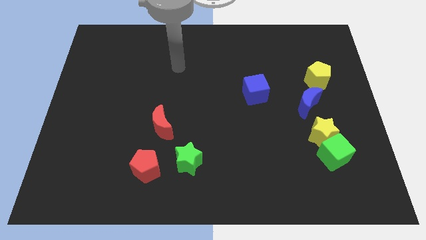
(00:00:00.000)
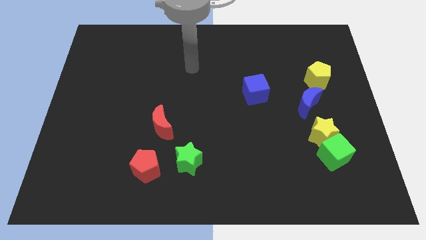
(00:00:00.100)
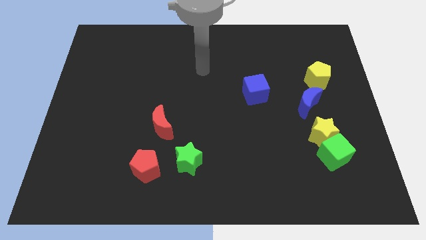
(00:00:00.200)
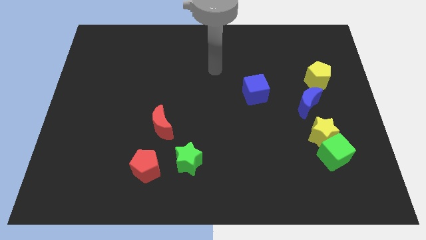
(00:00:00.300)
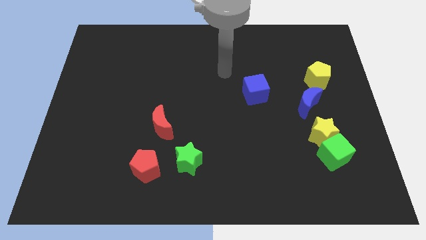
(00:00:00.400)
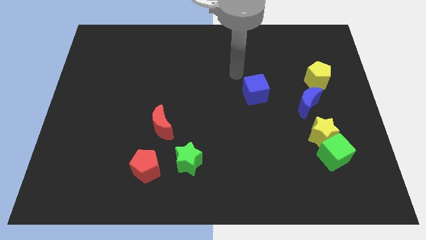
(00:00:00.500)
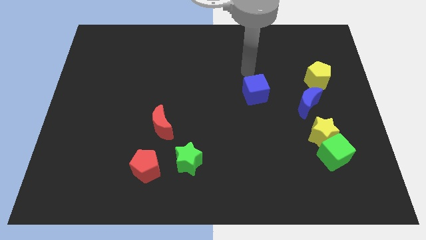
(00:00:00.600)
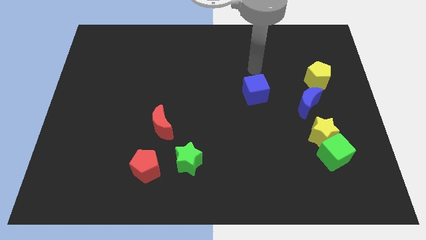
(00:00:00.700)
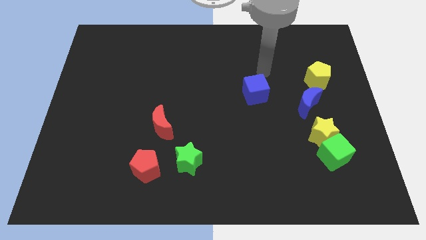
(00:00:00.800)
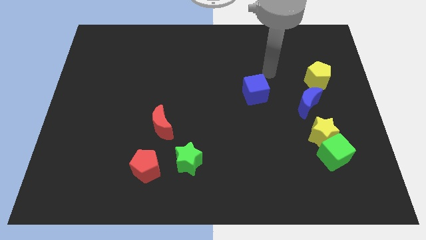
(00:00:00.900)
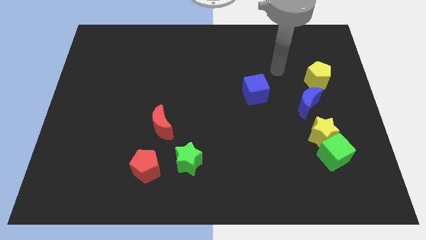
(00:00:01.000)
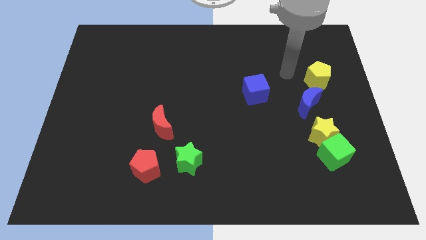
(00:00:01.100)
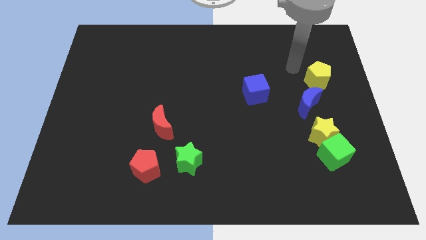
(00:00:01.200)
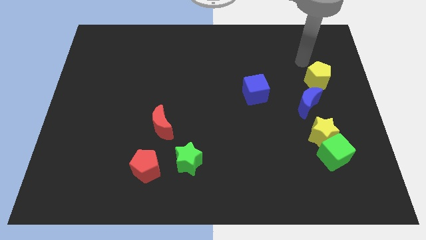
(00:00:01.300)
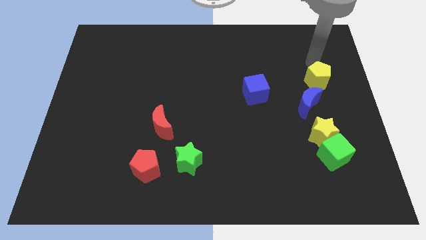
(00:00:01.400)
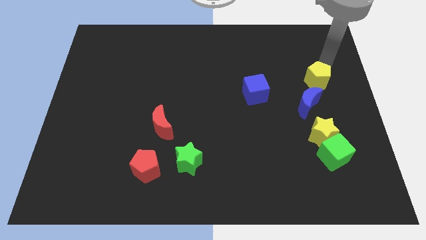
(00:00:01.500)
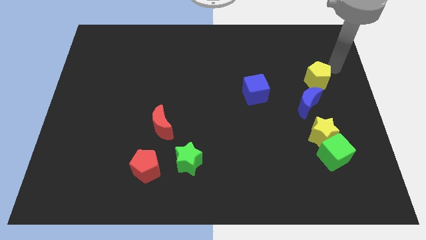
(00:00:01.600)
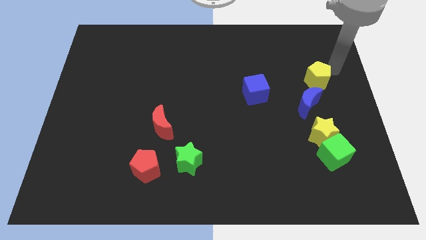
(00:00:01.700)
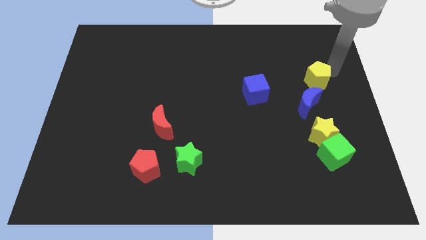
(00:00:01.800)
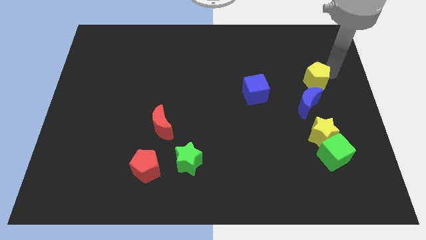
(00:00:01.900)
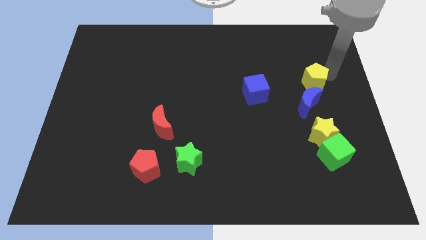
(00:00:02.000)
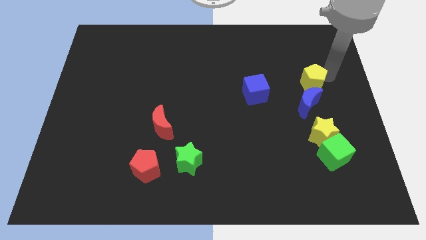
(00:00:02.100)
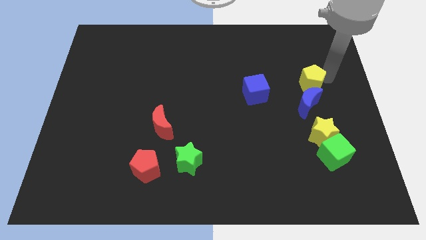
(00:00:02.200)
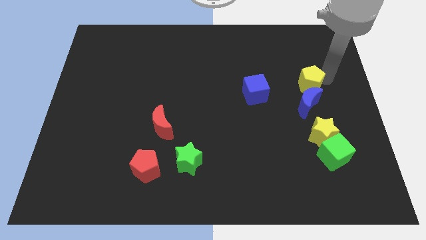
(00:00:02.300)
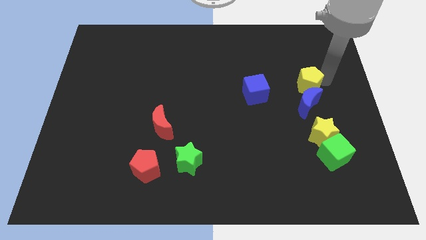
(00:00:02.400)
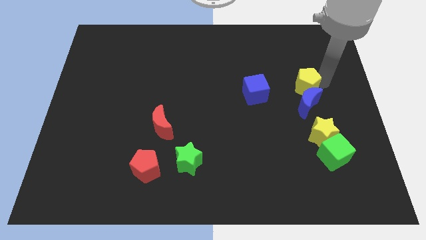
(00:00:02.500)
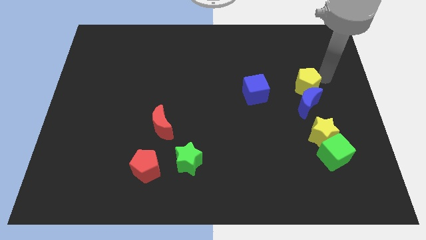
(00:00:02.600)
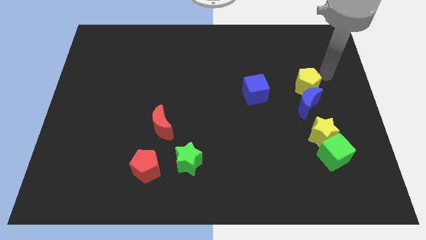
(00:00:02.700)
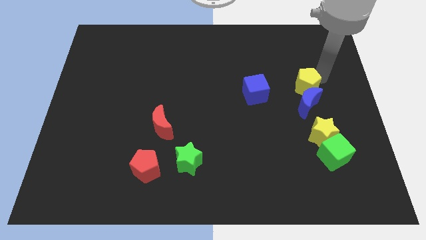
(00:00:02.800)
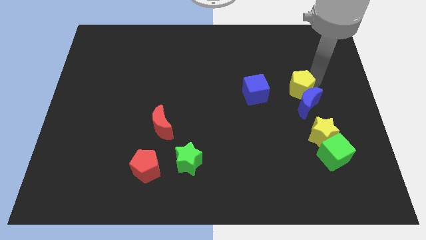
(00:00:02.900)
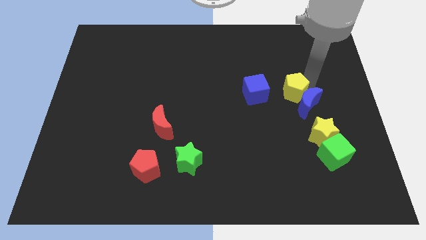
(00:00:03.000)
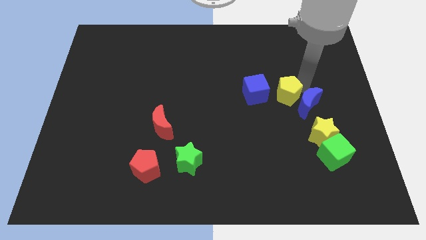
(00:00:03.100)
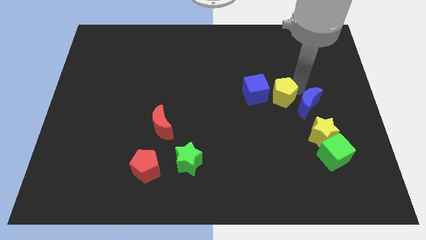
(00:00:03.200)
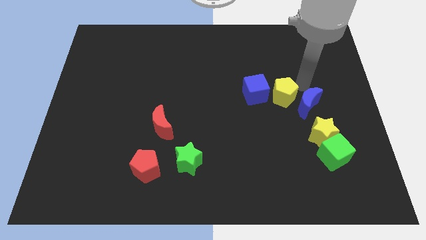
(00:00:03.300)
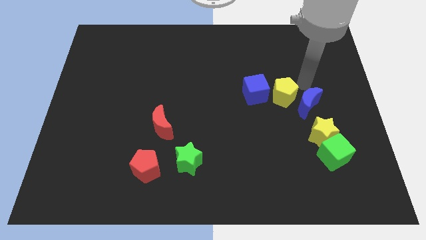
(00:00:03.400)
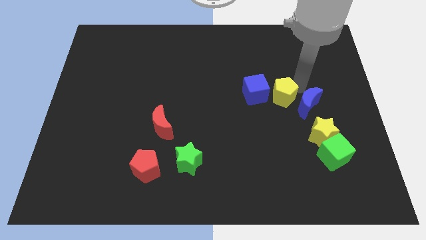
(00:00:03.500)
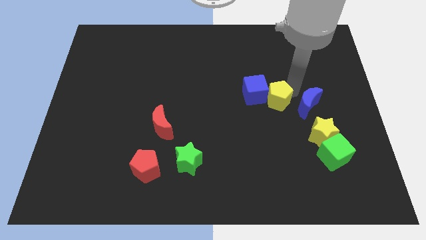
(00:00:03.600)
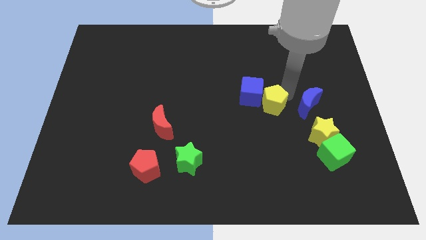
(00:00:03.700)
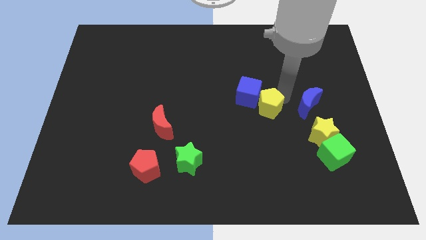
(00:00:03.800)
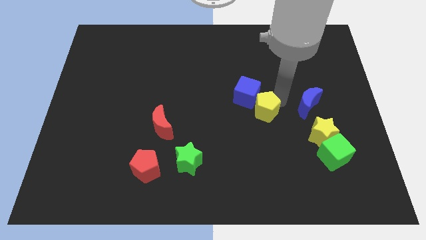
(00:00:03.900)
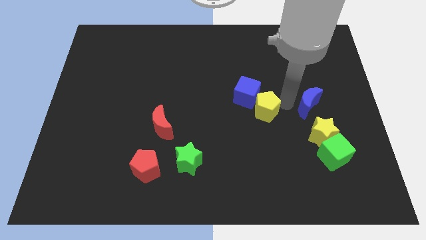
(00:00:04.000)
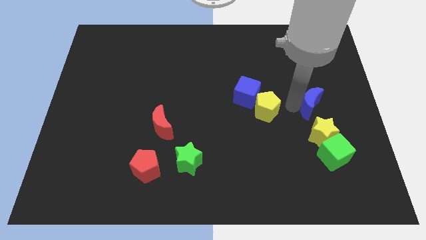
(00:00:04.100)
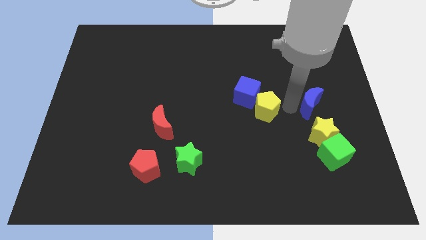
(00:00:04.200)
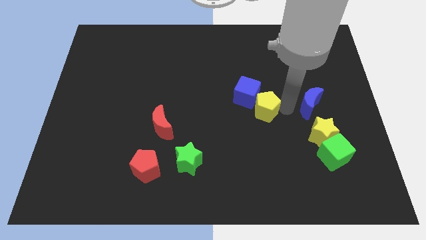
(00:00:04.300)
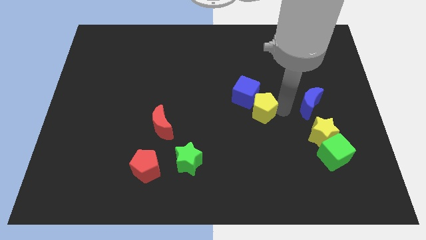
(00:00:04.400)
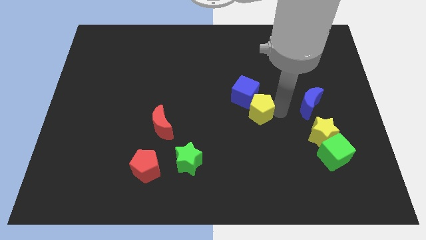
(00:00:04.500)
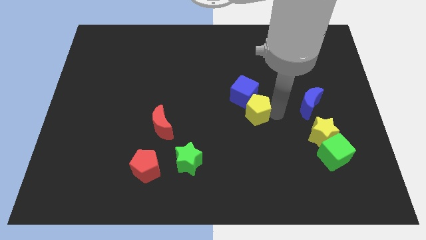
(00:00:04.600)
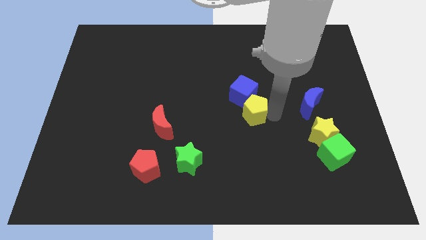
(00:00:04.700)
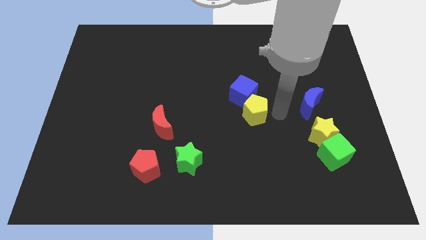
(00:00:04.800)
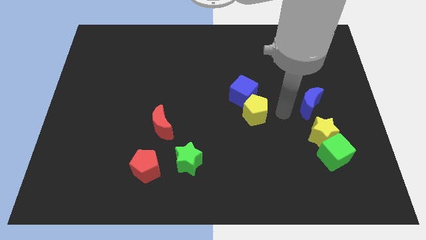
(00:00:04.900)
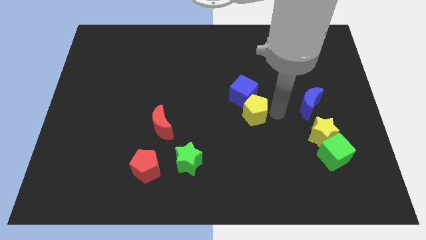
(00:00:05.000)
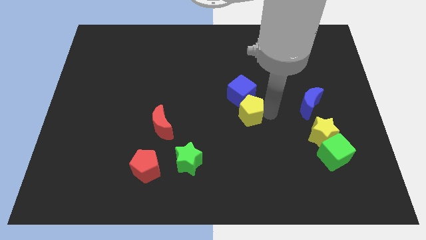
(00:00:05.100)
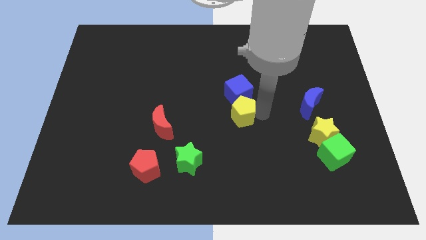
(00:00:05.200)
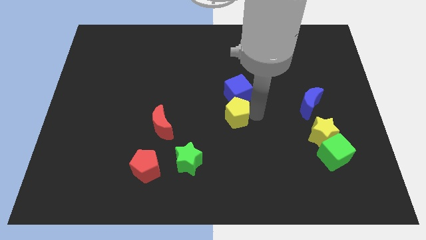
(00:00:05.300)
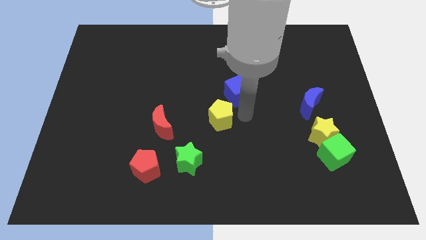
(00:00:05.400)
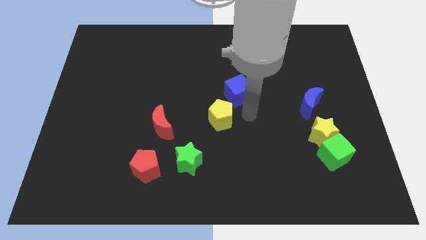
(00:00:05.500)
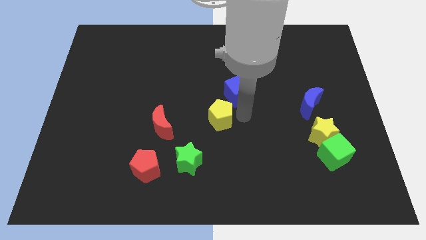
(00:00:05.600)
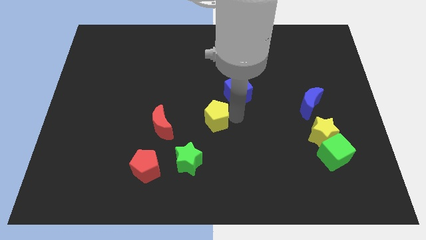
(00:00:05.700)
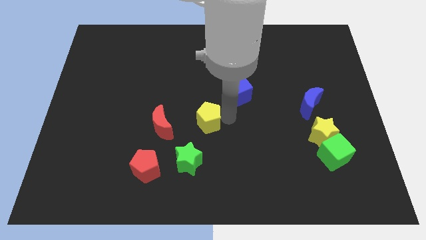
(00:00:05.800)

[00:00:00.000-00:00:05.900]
put the yellow pentagon above the green star

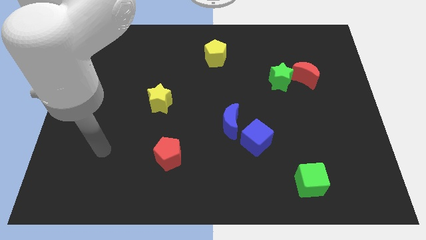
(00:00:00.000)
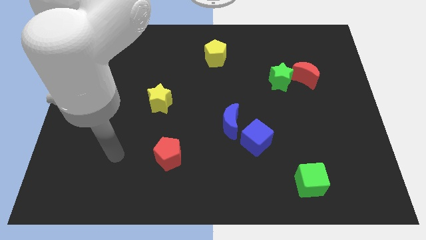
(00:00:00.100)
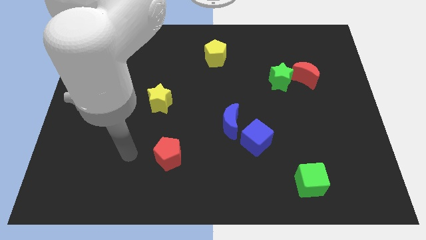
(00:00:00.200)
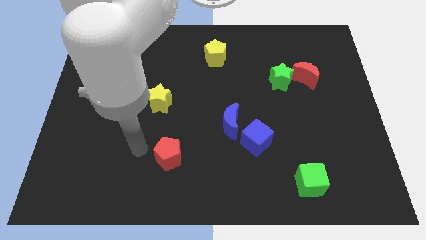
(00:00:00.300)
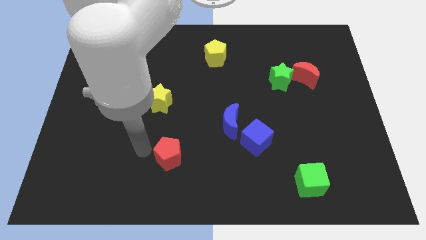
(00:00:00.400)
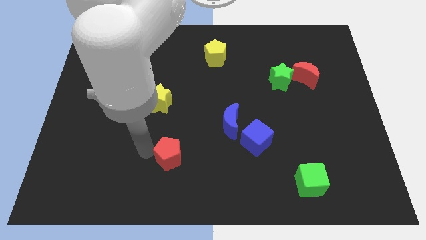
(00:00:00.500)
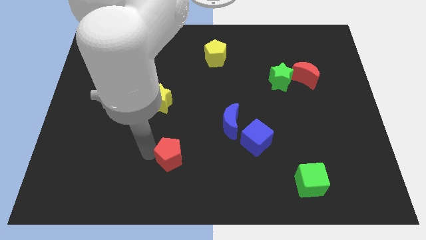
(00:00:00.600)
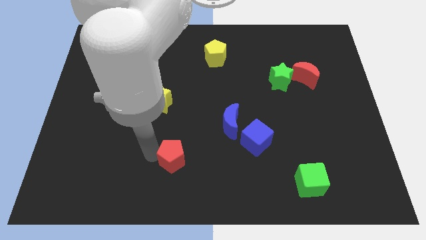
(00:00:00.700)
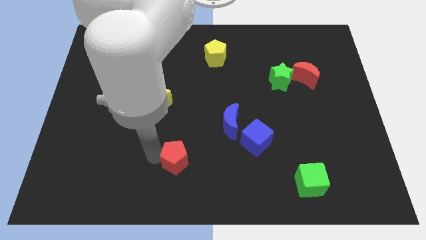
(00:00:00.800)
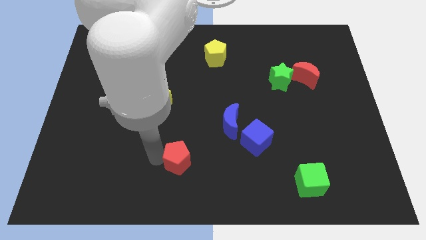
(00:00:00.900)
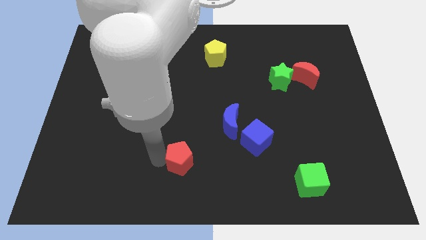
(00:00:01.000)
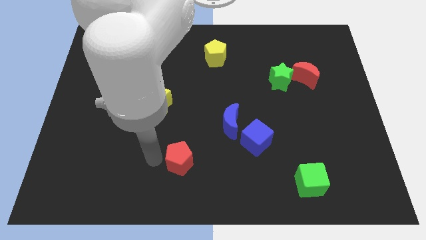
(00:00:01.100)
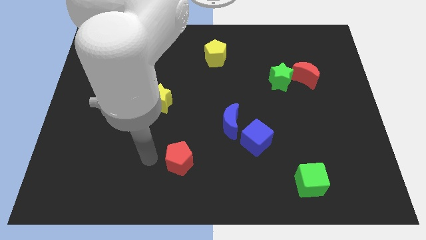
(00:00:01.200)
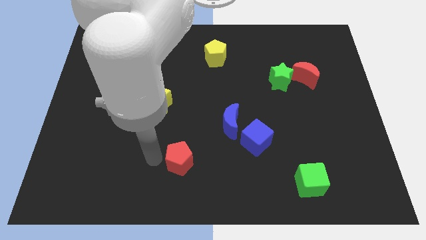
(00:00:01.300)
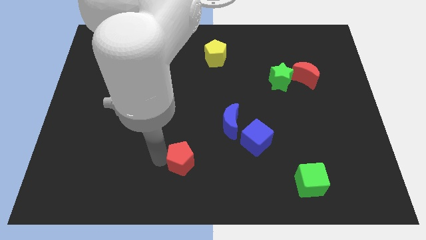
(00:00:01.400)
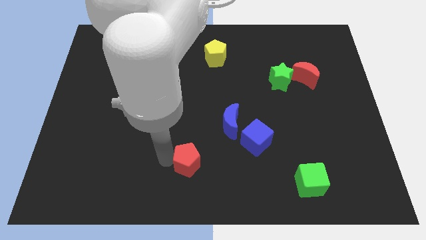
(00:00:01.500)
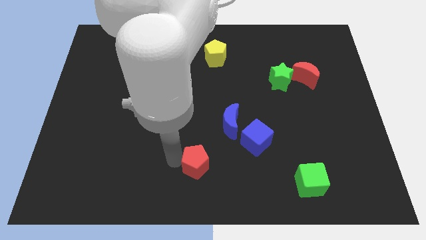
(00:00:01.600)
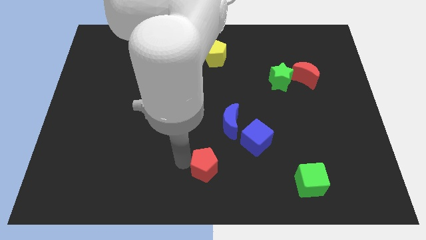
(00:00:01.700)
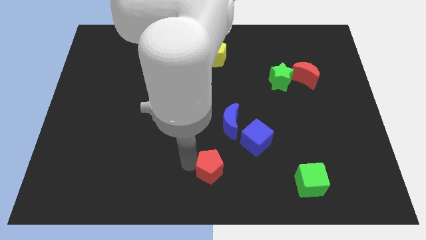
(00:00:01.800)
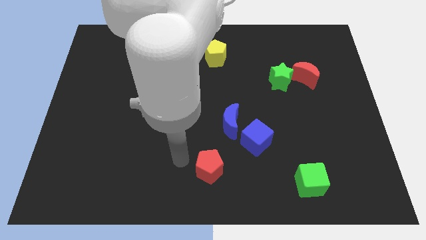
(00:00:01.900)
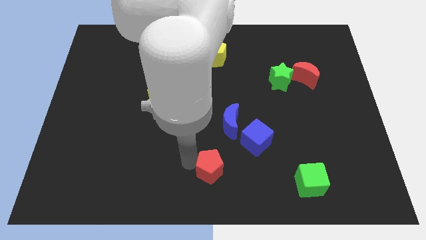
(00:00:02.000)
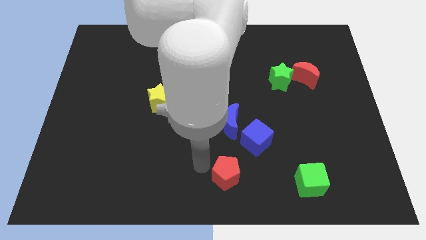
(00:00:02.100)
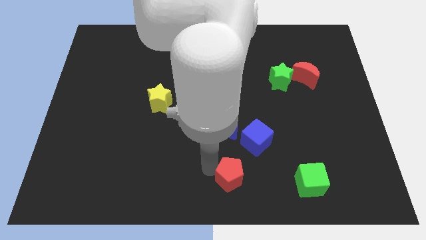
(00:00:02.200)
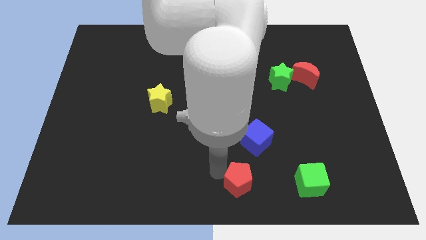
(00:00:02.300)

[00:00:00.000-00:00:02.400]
slide the red pentagon to the left side of the green cube

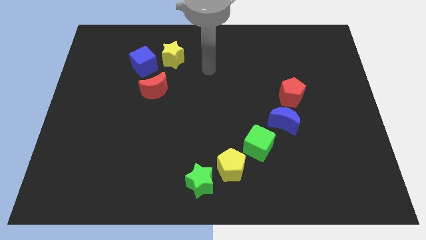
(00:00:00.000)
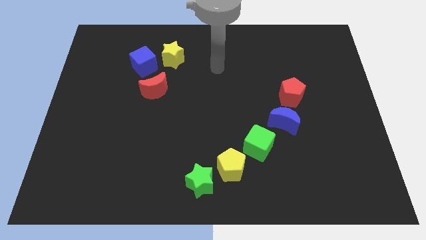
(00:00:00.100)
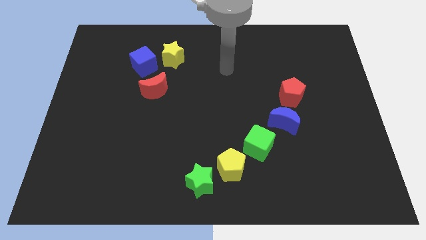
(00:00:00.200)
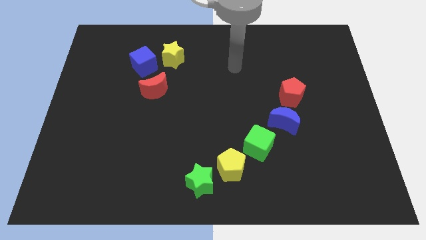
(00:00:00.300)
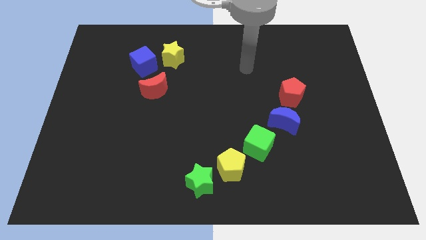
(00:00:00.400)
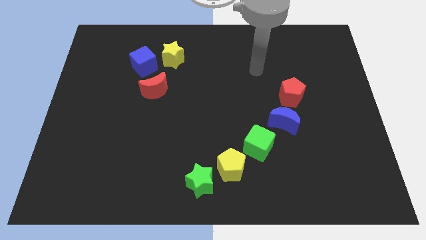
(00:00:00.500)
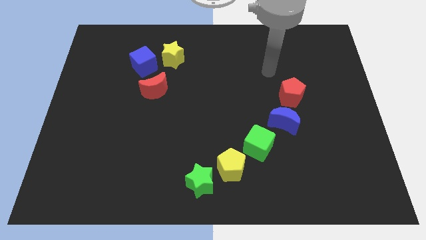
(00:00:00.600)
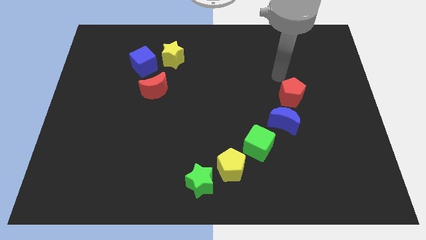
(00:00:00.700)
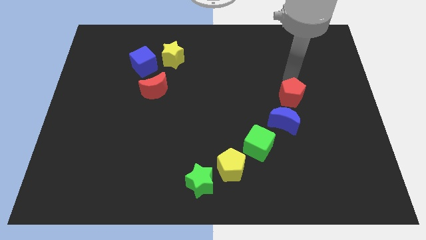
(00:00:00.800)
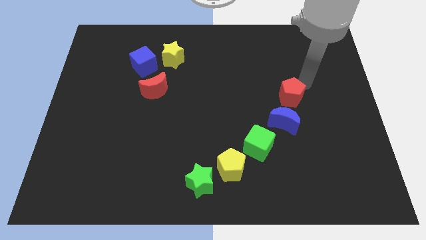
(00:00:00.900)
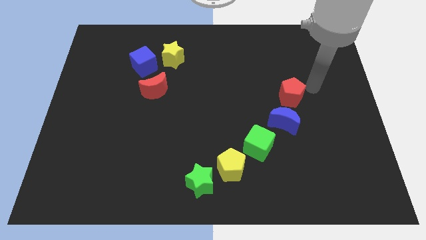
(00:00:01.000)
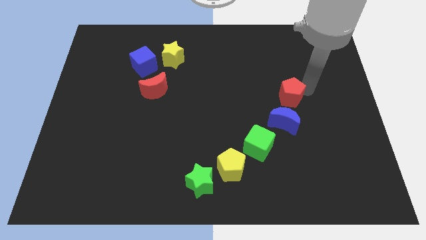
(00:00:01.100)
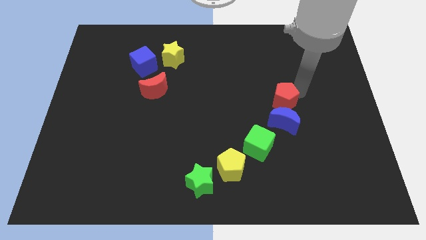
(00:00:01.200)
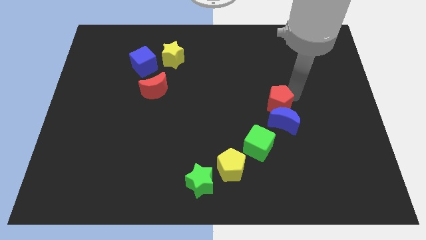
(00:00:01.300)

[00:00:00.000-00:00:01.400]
move the red pentagon to the top left side of the blue moon
